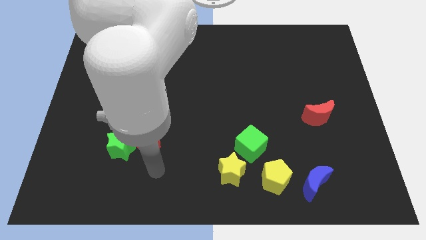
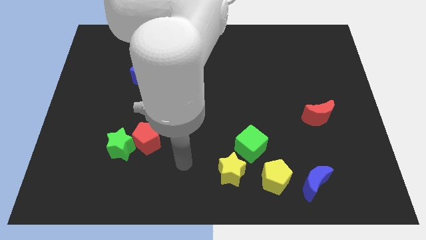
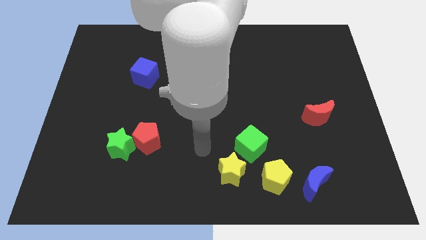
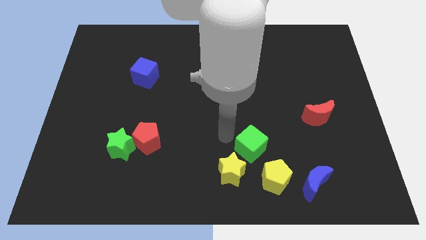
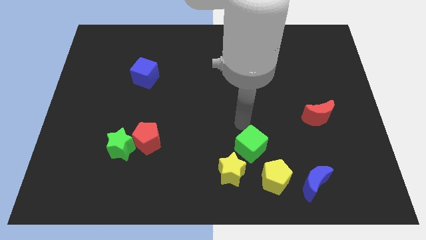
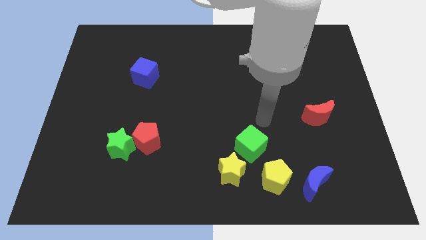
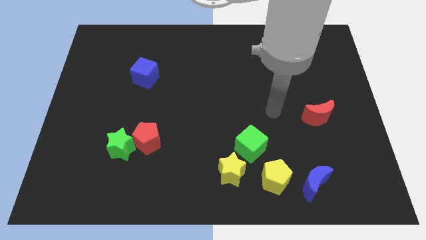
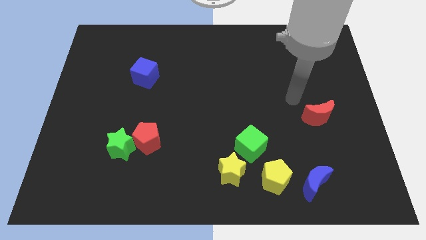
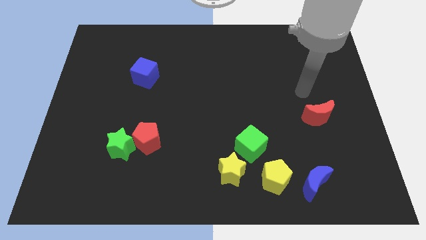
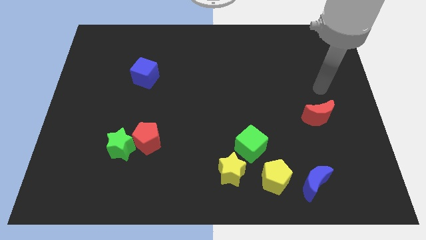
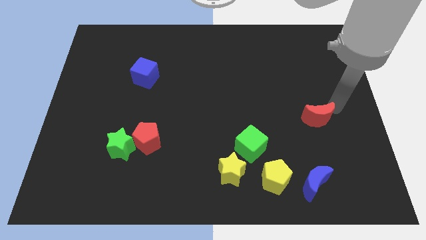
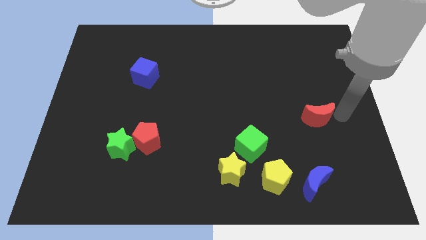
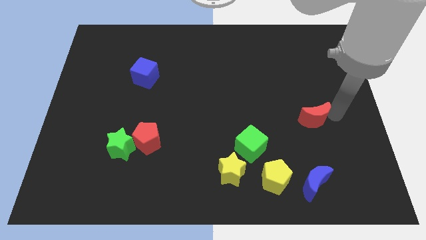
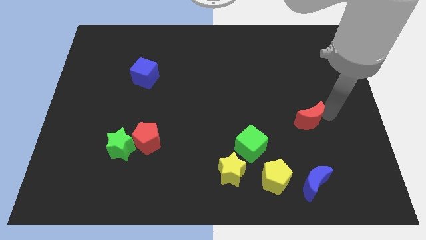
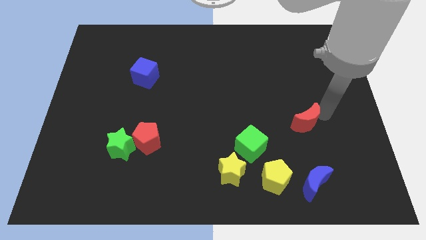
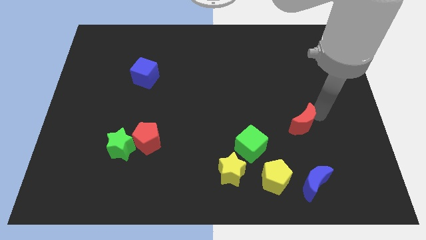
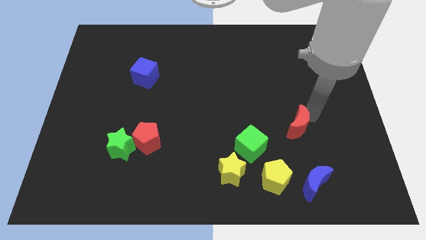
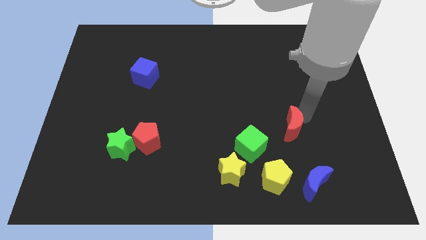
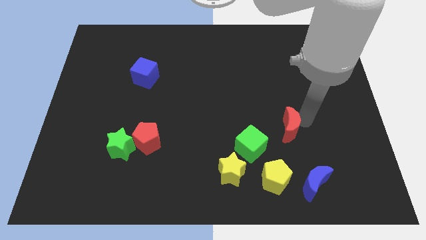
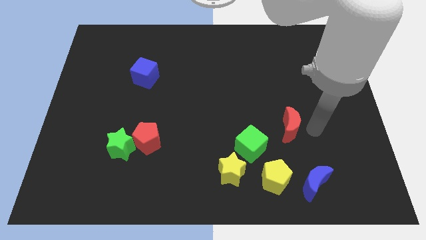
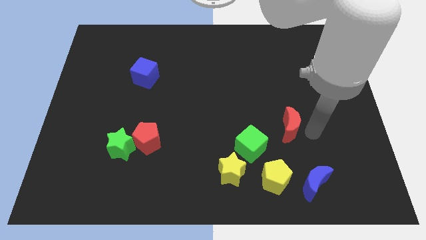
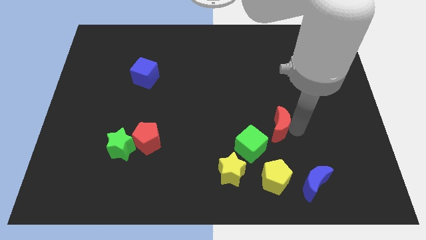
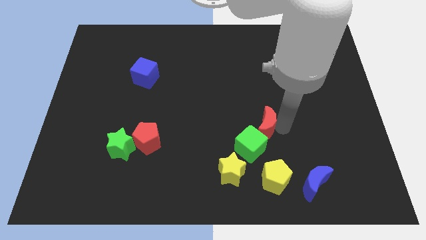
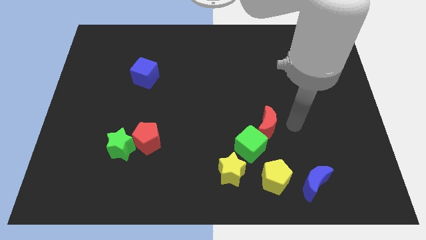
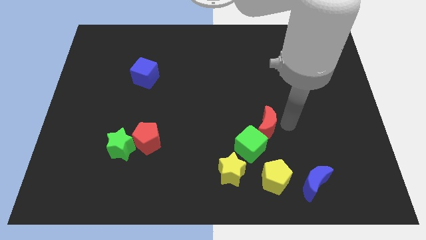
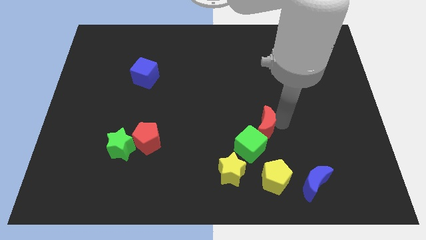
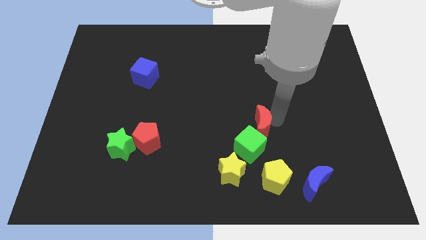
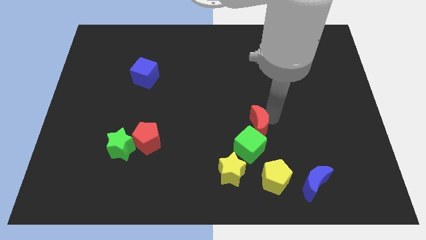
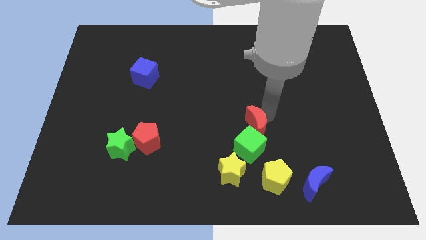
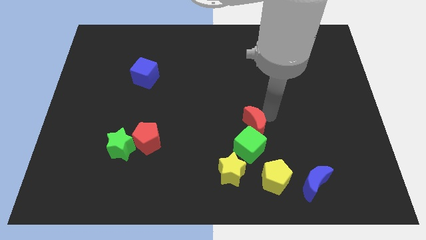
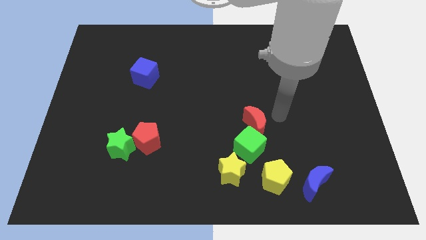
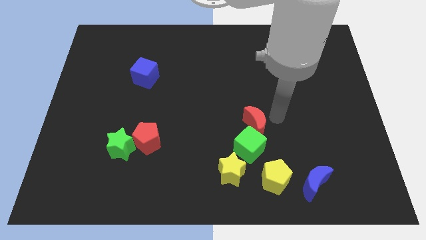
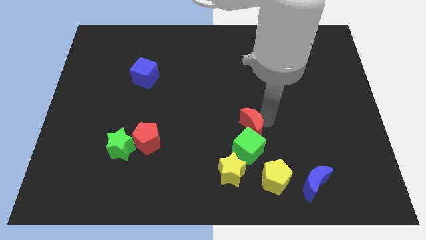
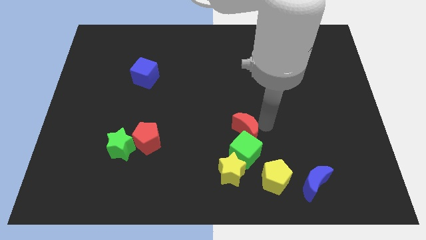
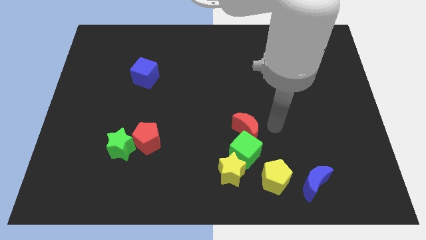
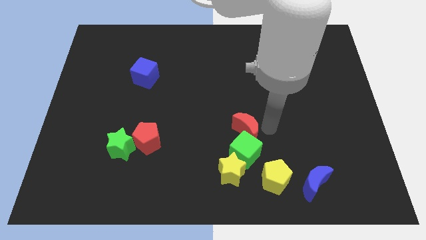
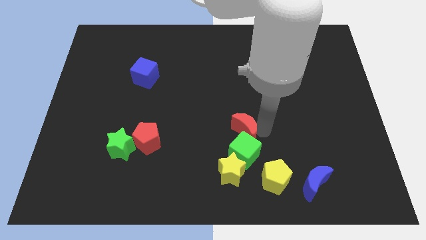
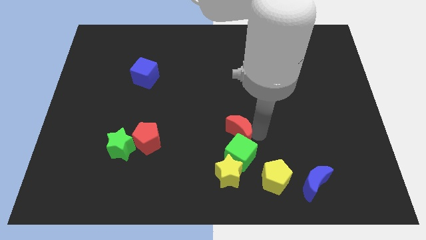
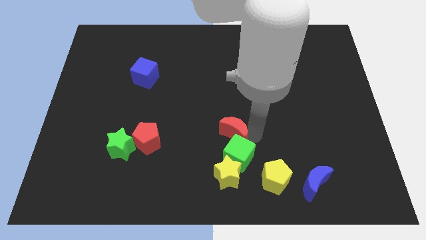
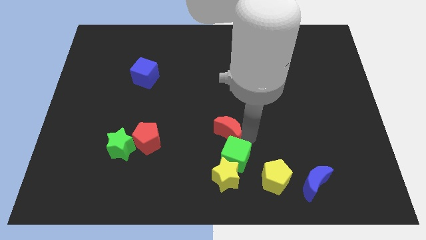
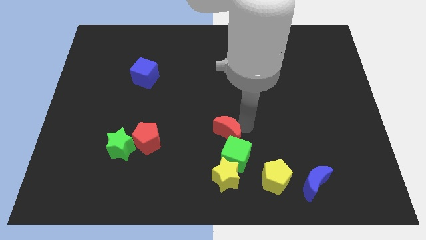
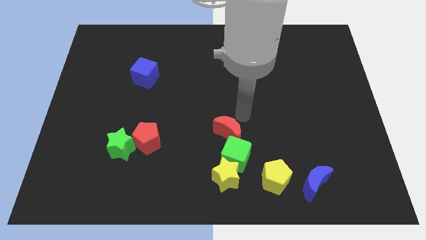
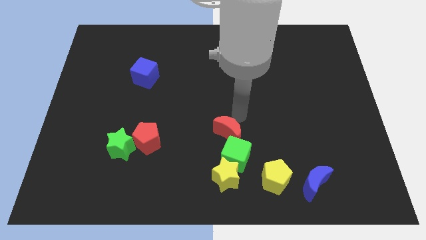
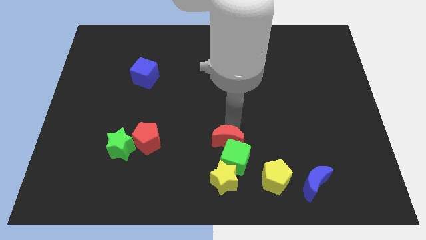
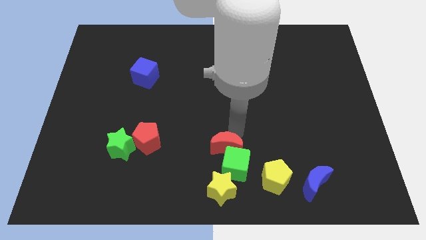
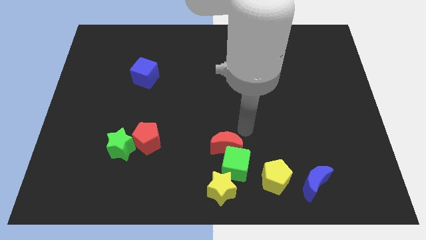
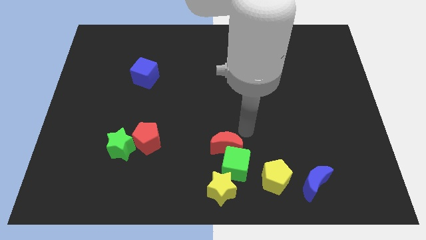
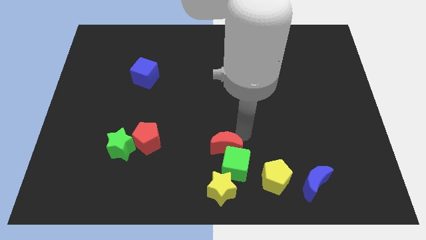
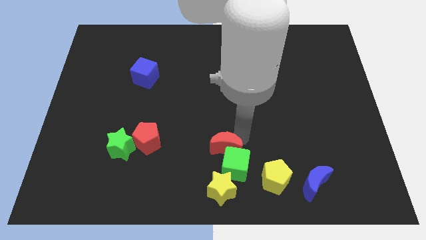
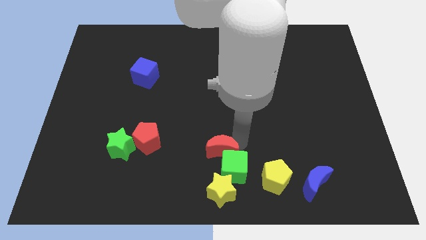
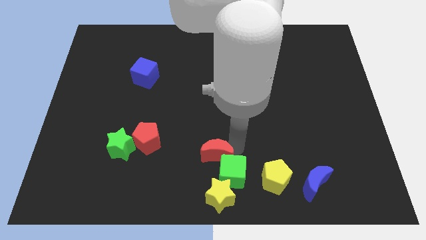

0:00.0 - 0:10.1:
move the red moon to the bottom side
